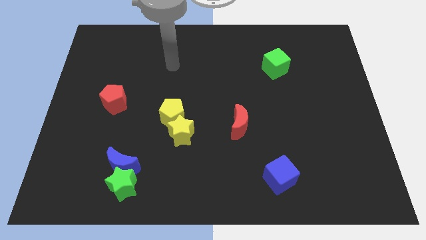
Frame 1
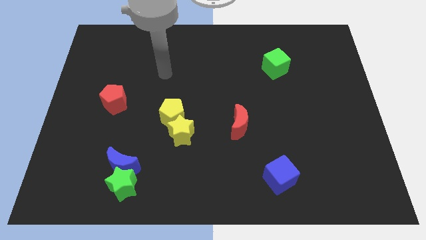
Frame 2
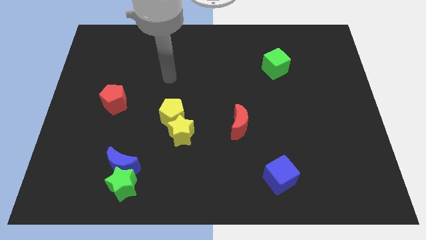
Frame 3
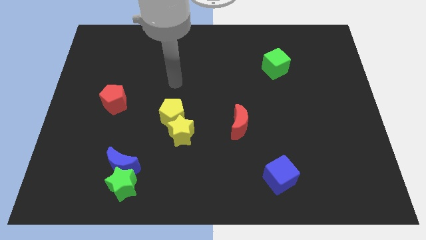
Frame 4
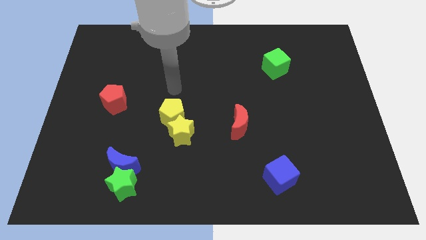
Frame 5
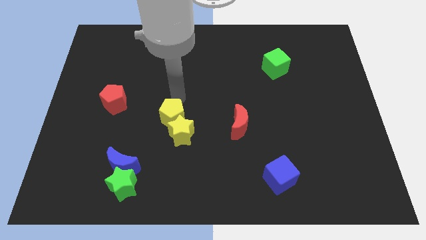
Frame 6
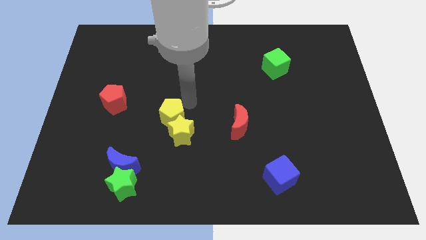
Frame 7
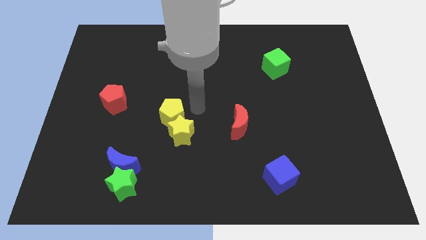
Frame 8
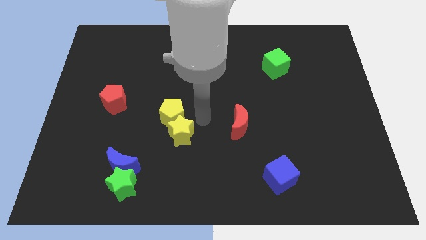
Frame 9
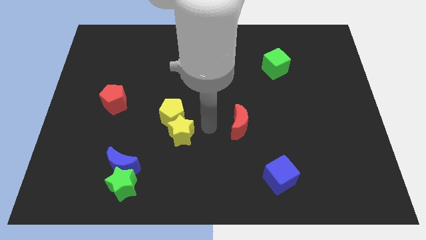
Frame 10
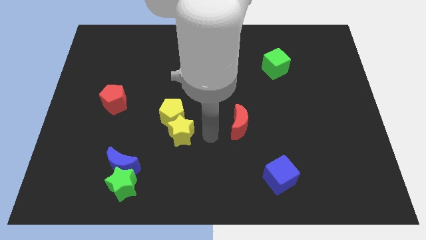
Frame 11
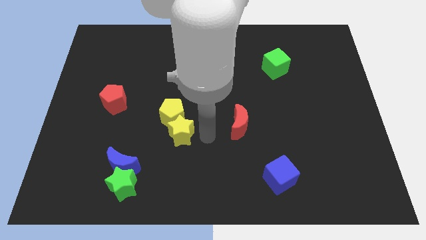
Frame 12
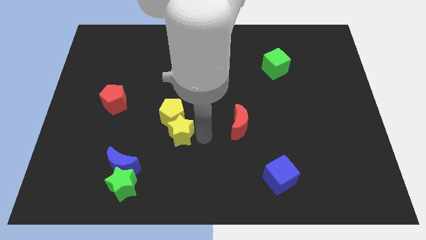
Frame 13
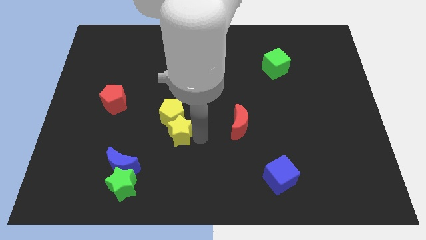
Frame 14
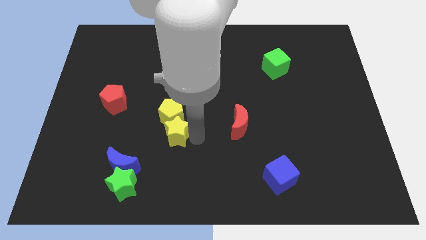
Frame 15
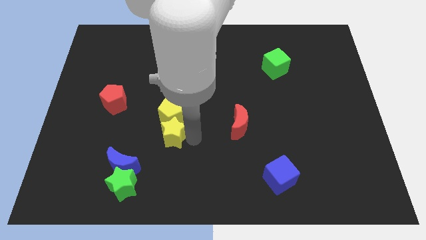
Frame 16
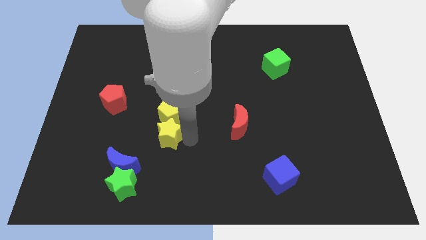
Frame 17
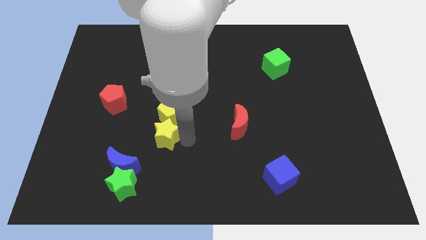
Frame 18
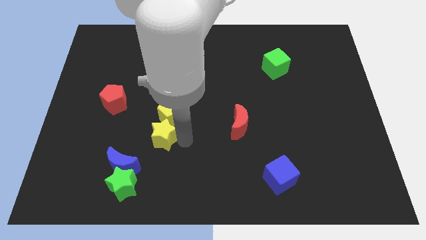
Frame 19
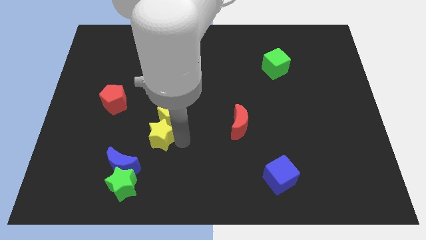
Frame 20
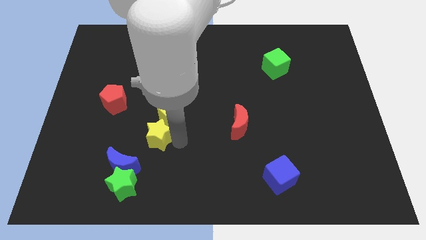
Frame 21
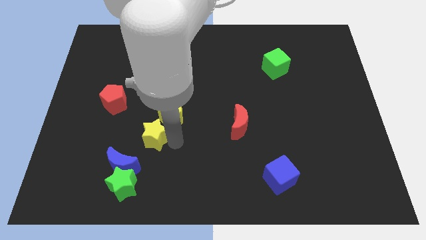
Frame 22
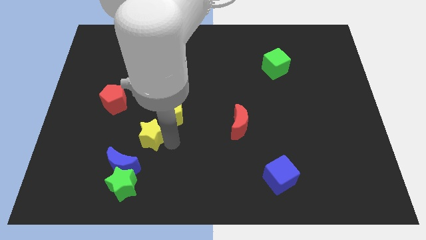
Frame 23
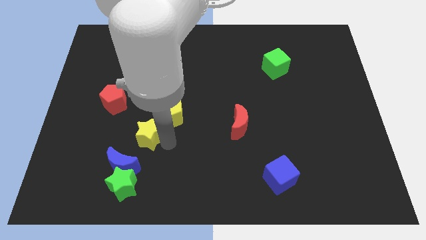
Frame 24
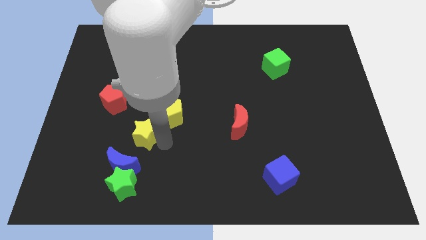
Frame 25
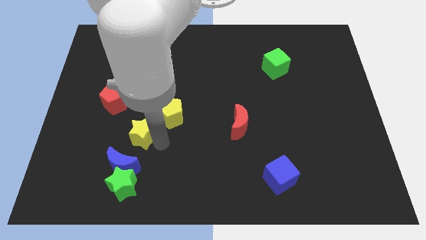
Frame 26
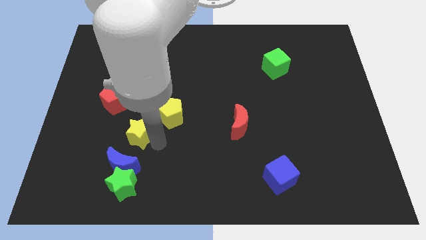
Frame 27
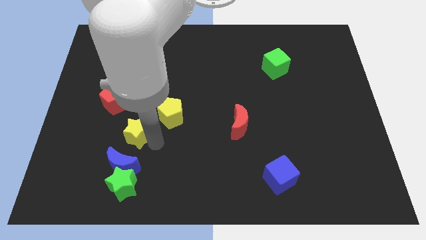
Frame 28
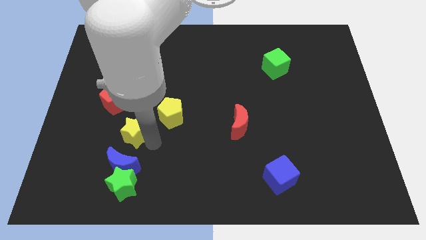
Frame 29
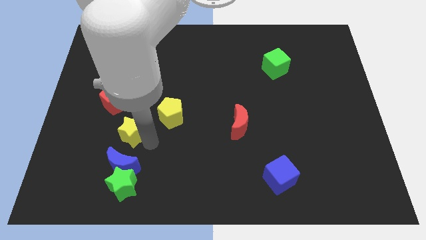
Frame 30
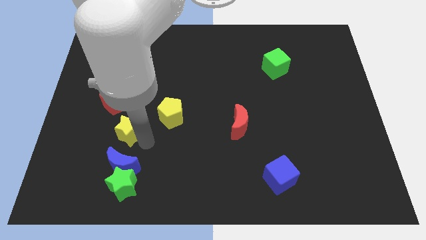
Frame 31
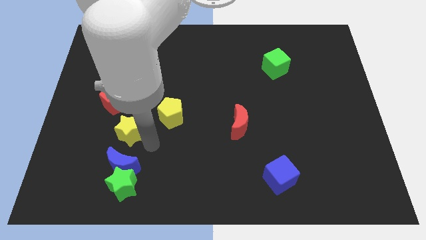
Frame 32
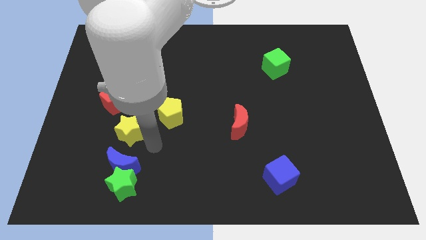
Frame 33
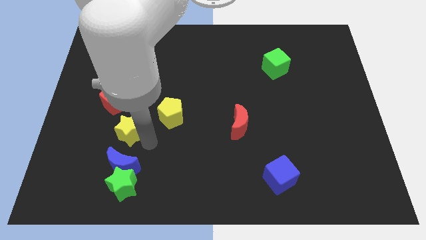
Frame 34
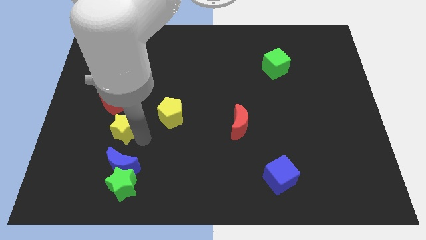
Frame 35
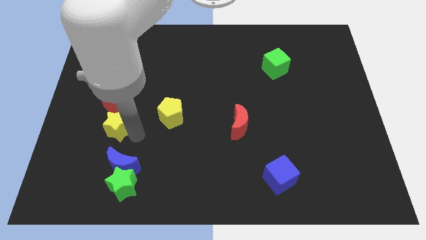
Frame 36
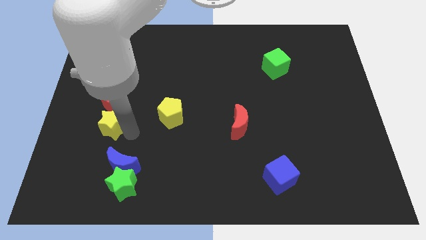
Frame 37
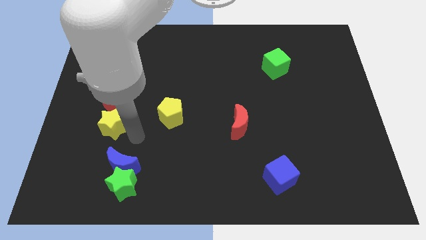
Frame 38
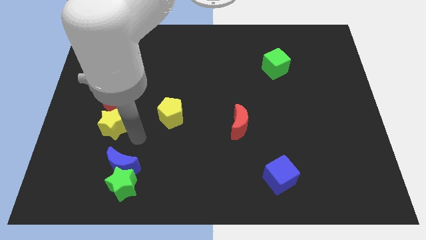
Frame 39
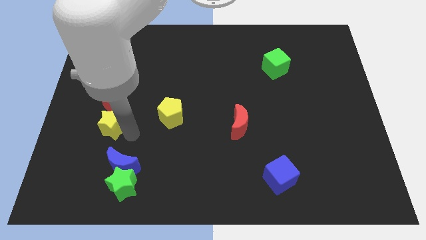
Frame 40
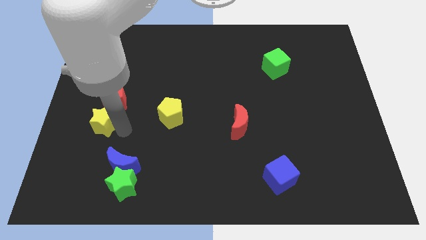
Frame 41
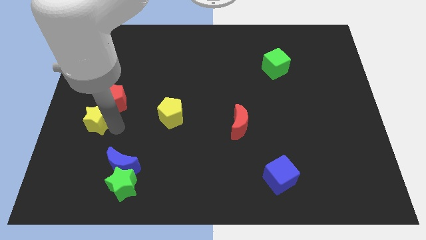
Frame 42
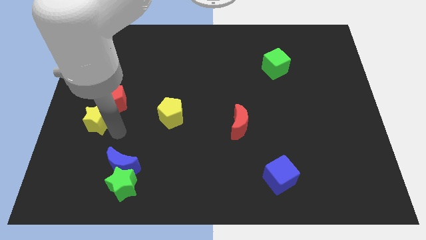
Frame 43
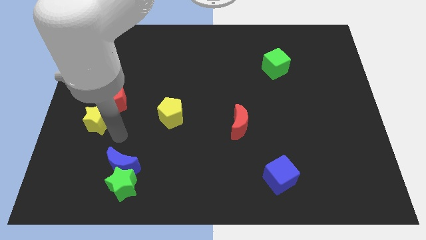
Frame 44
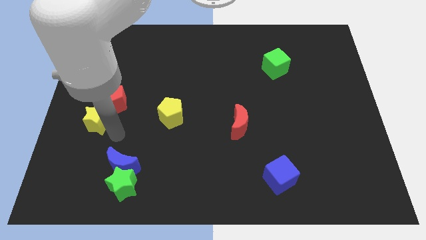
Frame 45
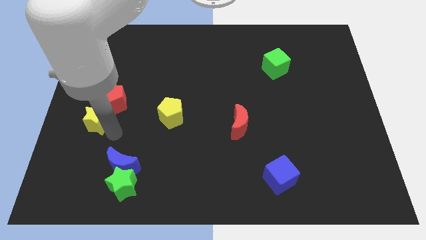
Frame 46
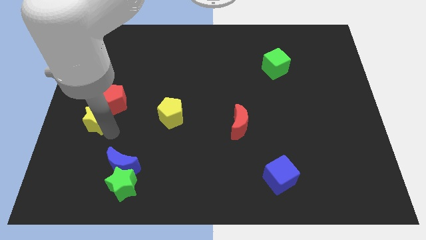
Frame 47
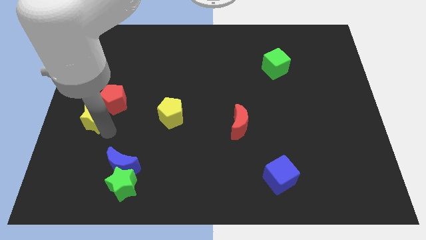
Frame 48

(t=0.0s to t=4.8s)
move the yellow star to the left side

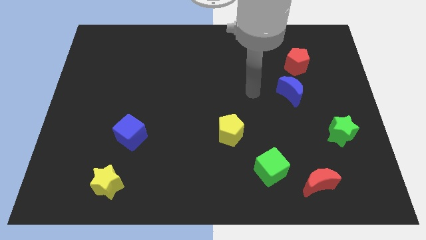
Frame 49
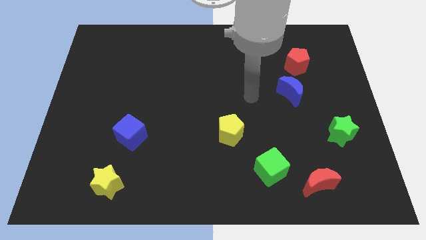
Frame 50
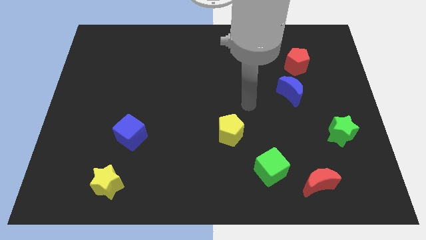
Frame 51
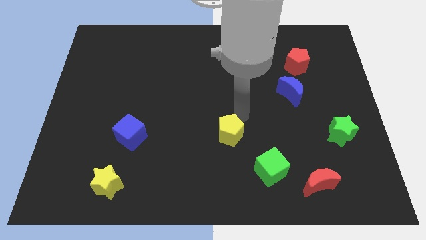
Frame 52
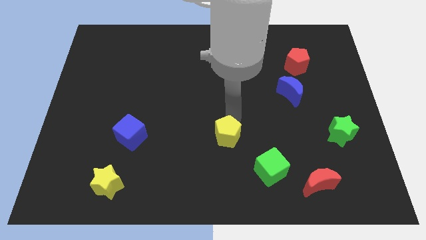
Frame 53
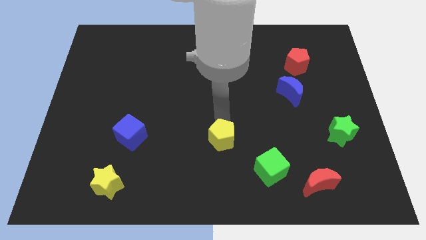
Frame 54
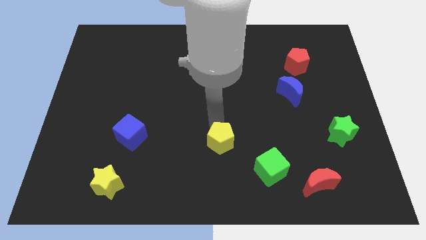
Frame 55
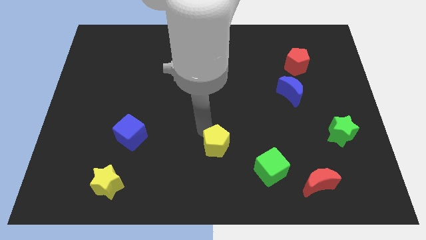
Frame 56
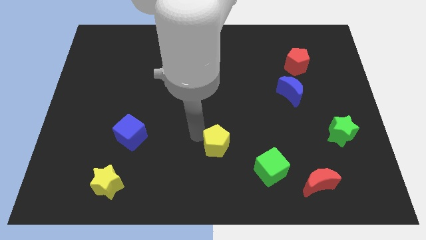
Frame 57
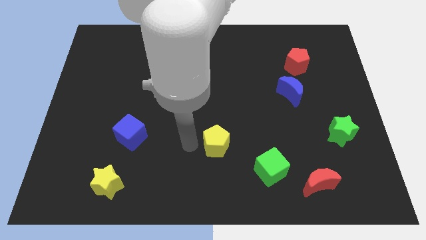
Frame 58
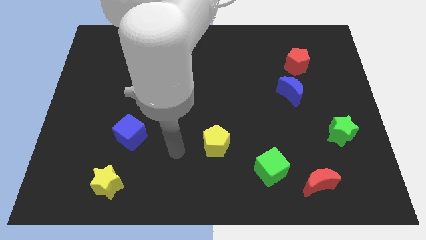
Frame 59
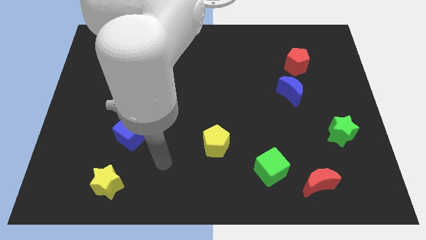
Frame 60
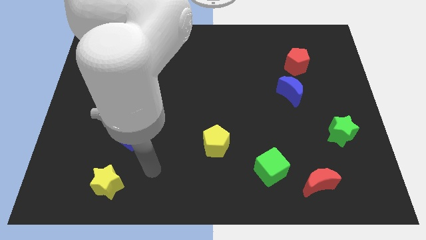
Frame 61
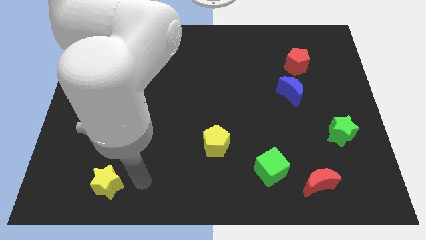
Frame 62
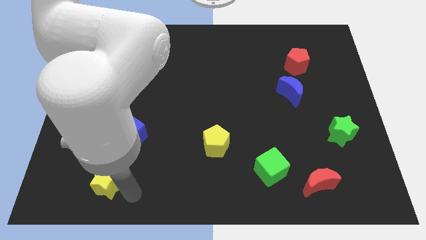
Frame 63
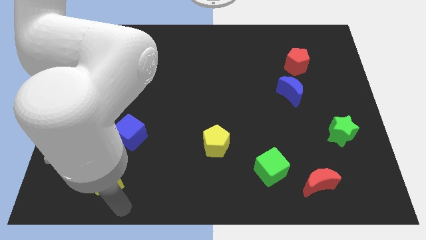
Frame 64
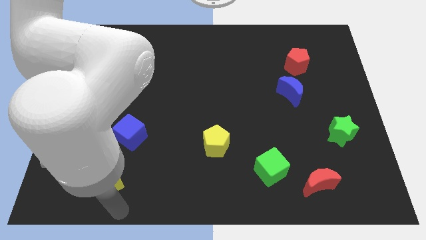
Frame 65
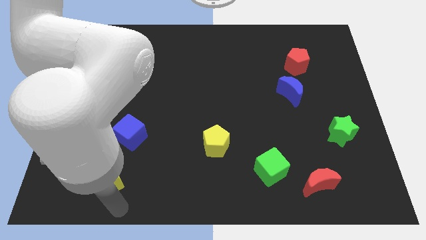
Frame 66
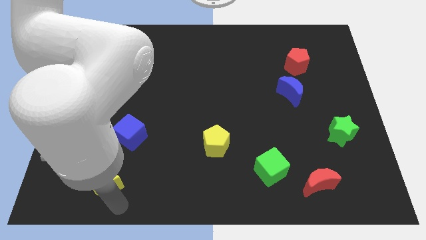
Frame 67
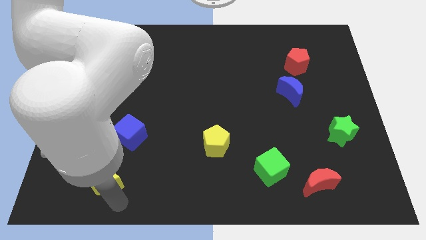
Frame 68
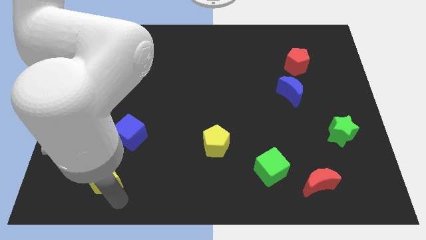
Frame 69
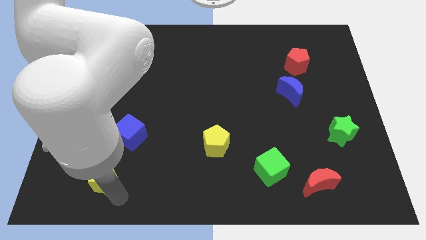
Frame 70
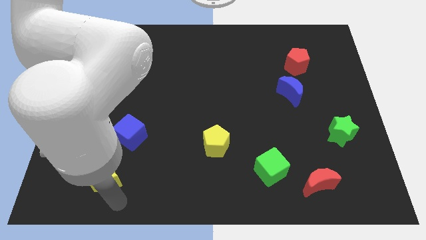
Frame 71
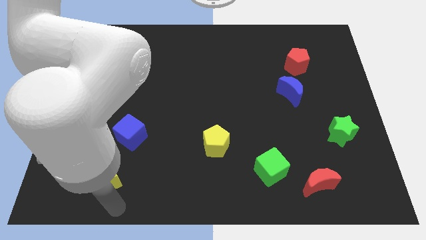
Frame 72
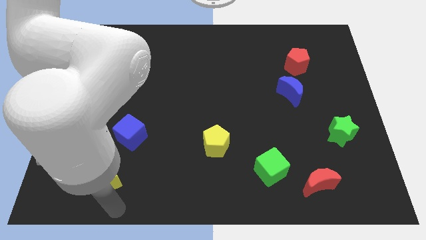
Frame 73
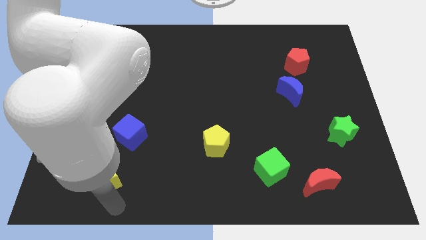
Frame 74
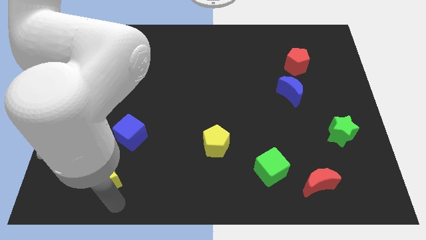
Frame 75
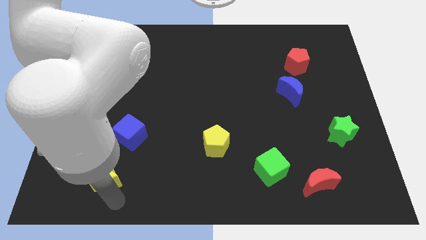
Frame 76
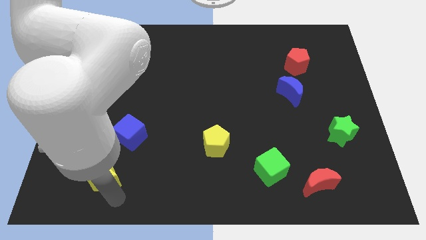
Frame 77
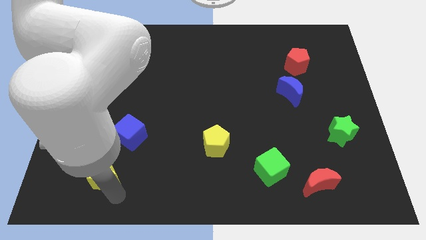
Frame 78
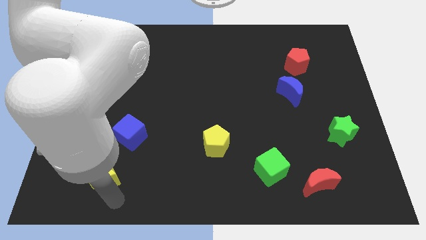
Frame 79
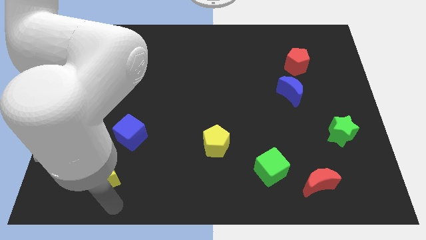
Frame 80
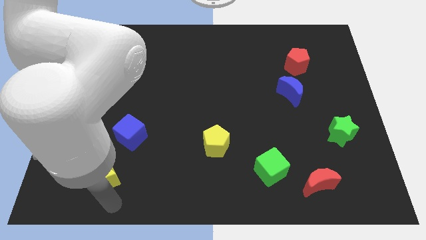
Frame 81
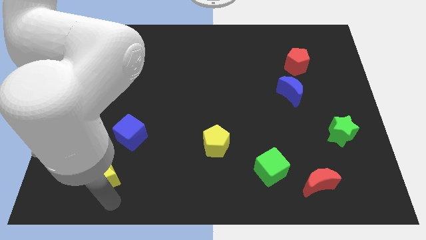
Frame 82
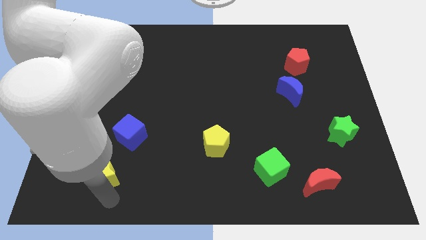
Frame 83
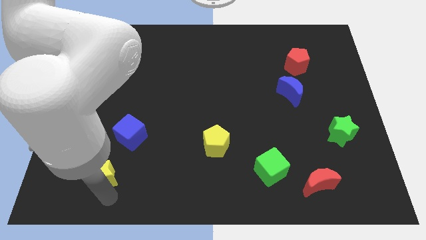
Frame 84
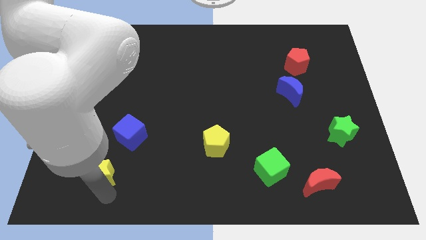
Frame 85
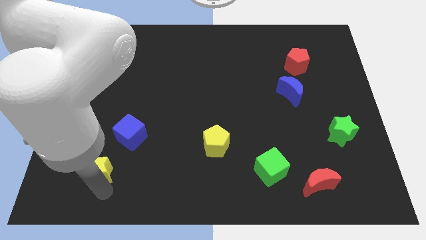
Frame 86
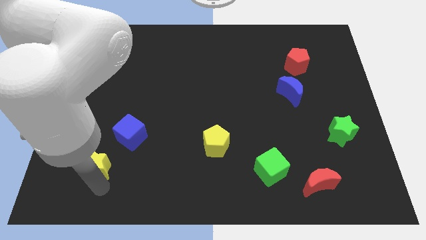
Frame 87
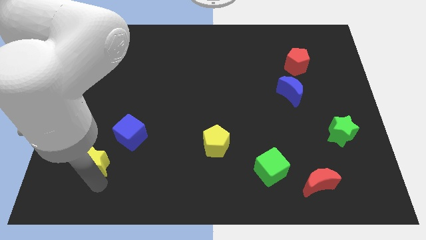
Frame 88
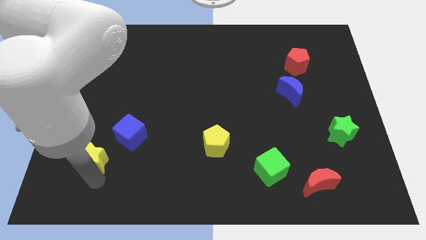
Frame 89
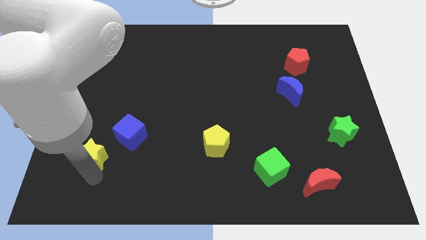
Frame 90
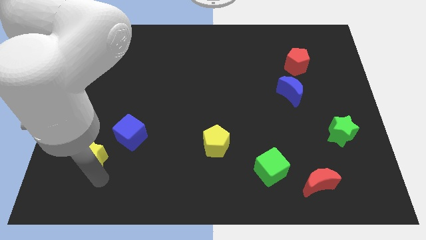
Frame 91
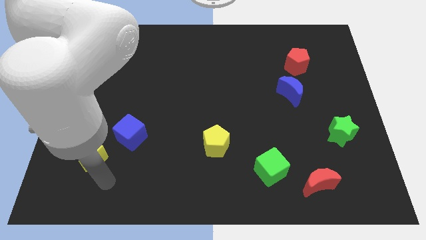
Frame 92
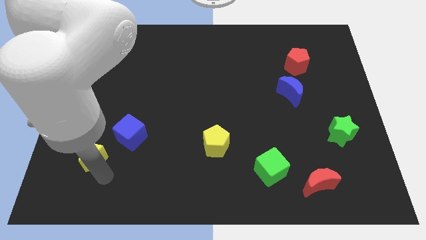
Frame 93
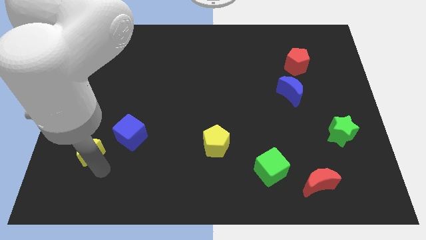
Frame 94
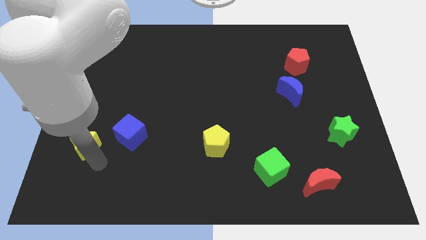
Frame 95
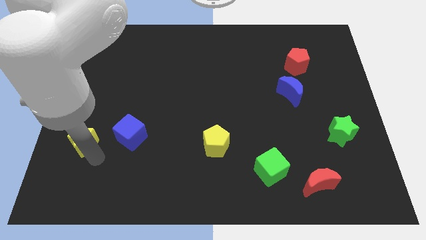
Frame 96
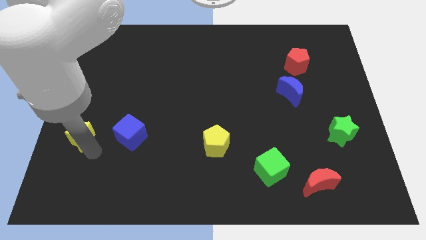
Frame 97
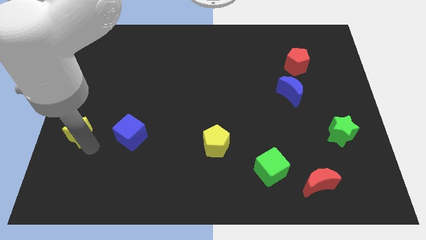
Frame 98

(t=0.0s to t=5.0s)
slide the yellow star to the left side
